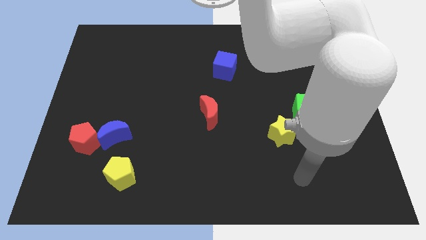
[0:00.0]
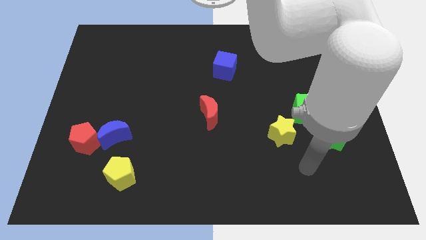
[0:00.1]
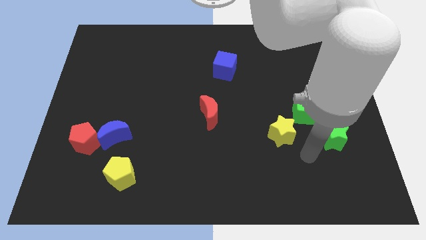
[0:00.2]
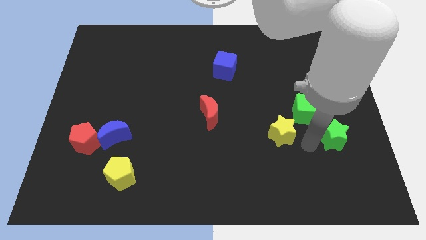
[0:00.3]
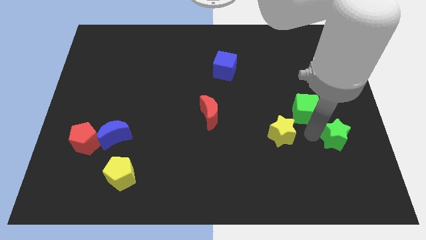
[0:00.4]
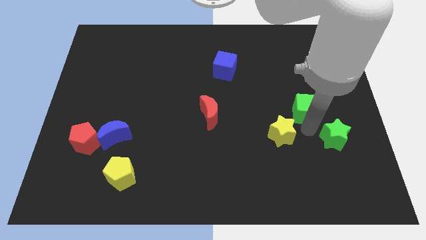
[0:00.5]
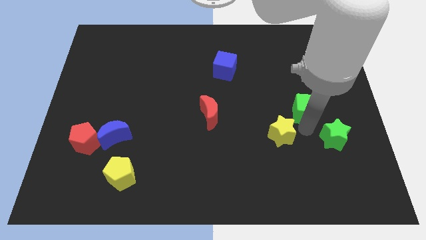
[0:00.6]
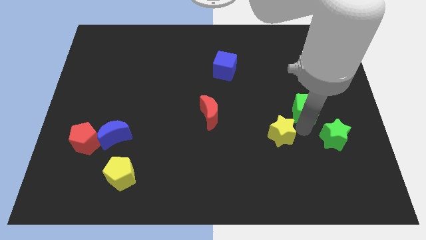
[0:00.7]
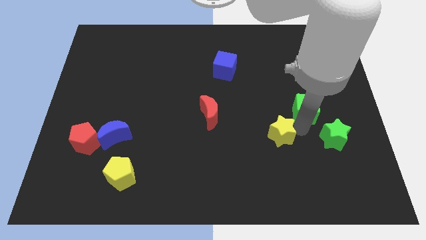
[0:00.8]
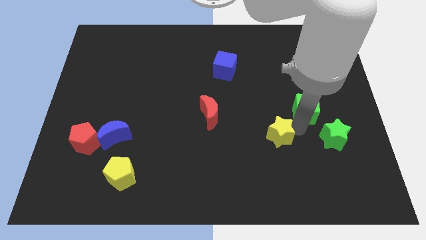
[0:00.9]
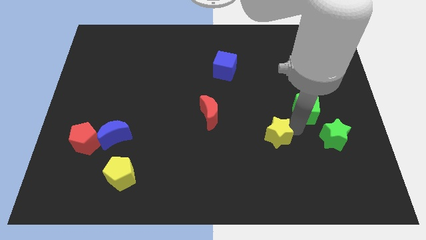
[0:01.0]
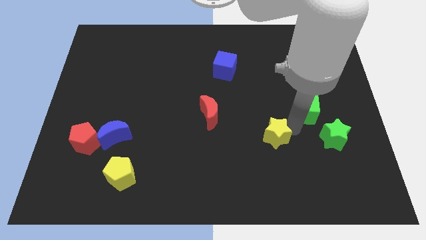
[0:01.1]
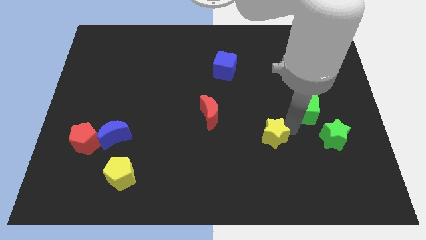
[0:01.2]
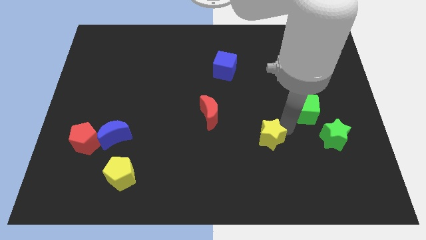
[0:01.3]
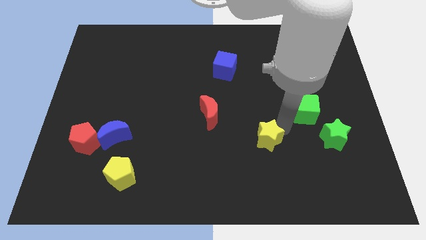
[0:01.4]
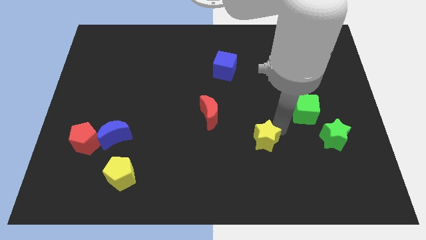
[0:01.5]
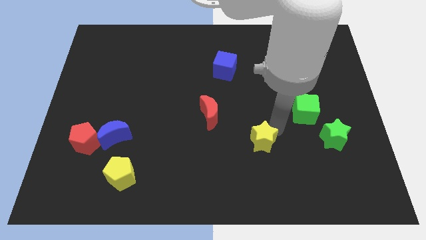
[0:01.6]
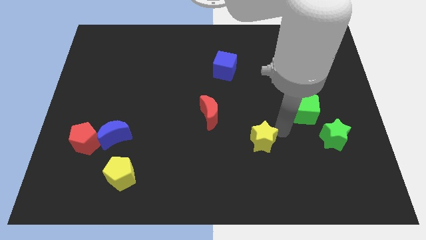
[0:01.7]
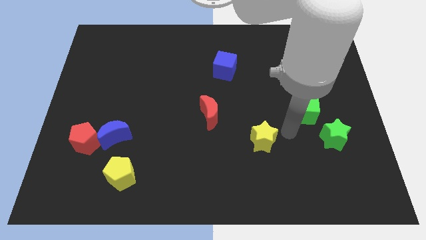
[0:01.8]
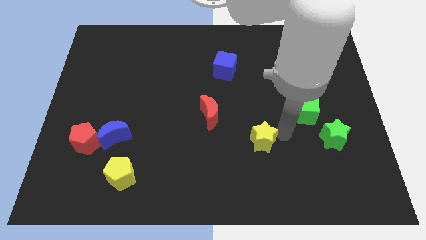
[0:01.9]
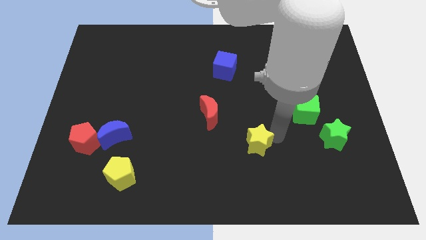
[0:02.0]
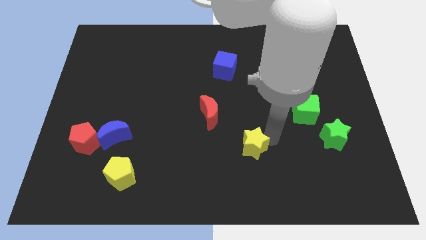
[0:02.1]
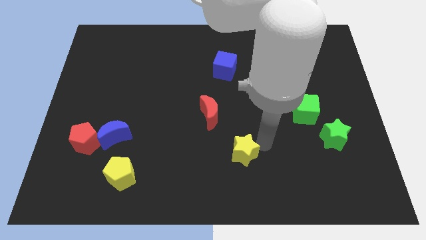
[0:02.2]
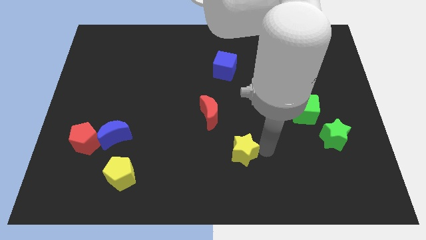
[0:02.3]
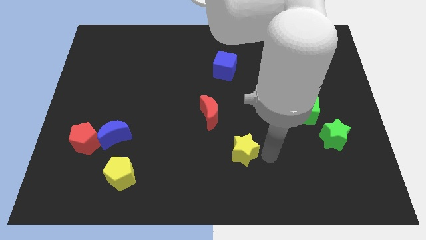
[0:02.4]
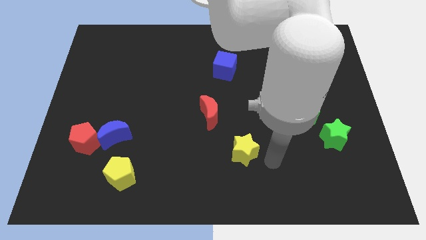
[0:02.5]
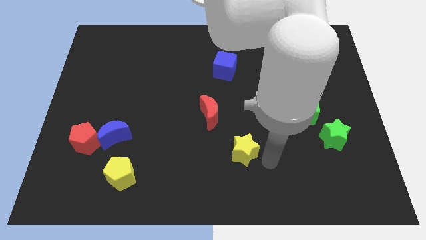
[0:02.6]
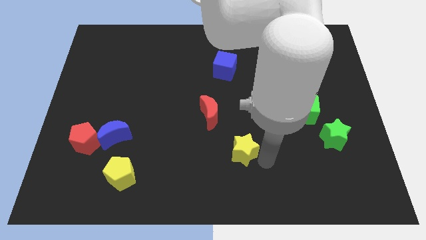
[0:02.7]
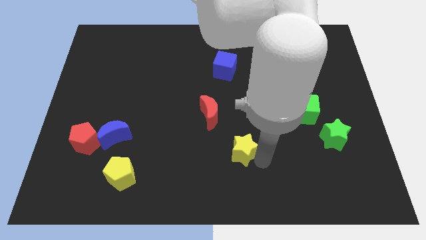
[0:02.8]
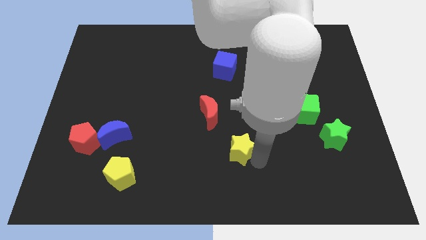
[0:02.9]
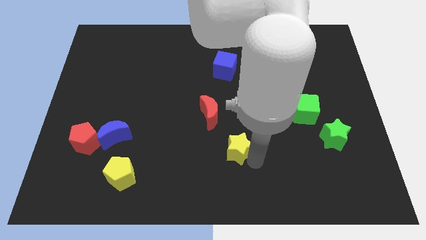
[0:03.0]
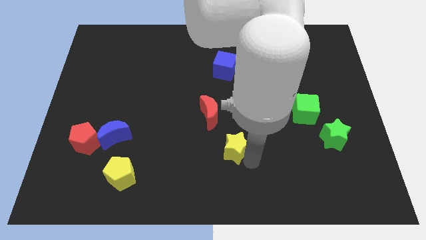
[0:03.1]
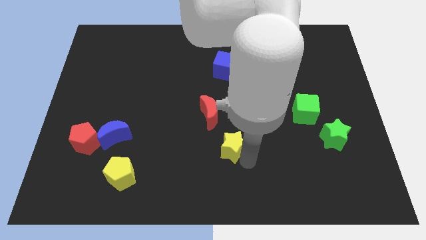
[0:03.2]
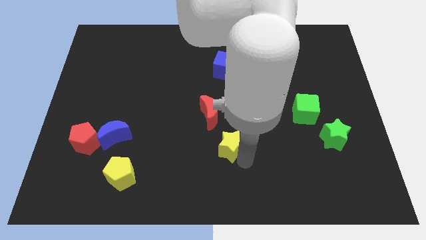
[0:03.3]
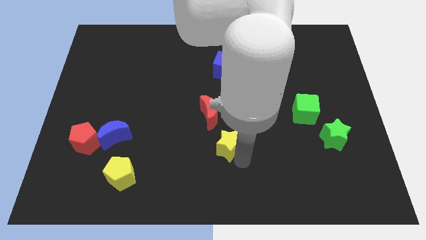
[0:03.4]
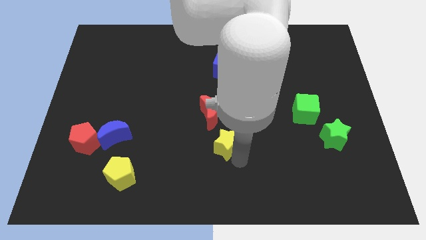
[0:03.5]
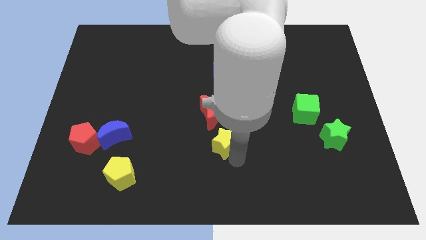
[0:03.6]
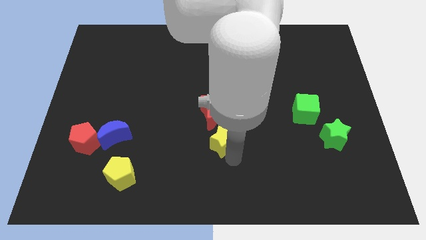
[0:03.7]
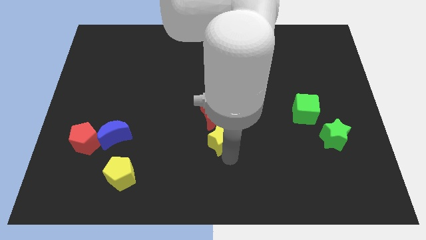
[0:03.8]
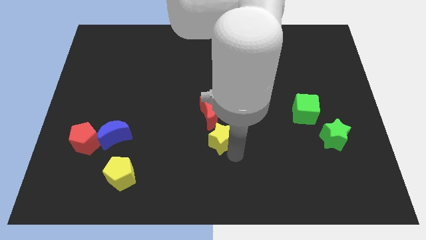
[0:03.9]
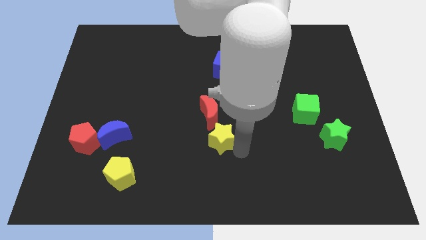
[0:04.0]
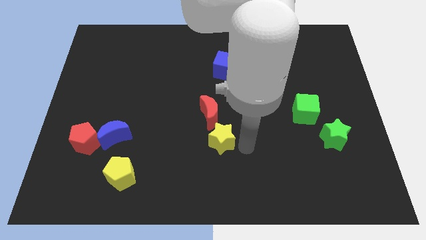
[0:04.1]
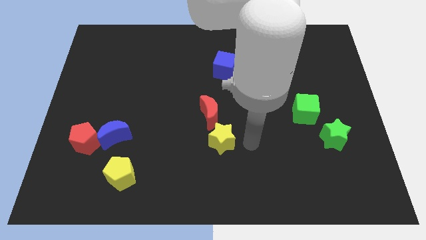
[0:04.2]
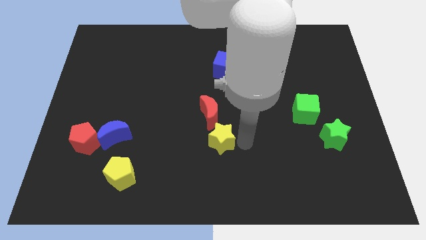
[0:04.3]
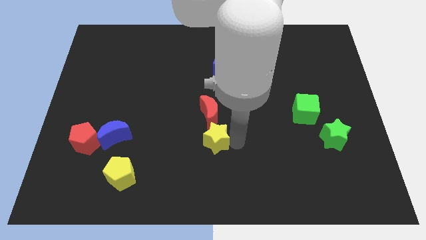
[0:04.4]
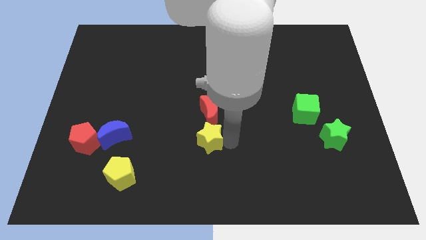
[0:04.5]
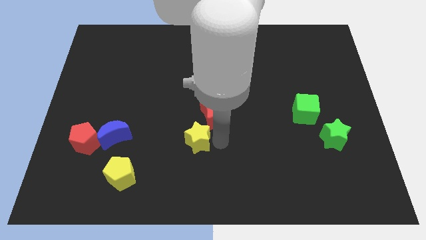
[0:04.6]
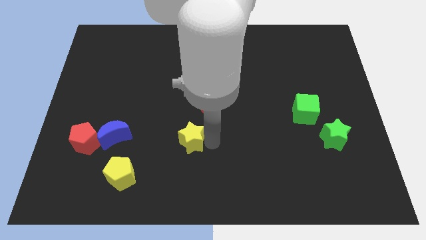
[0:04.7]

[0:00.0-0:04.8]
slide the yellow star to the left

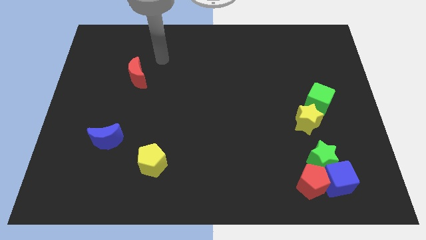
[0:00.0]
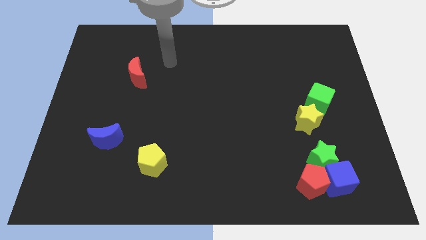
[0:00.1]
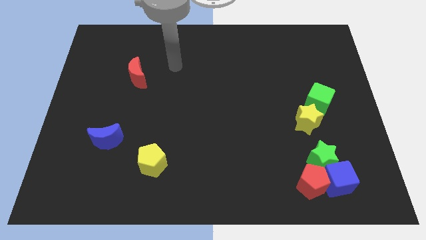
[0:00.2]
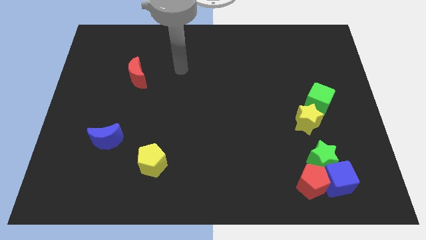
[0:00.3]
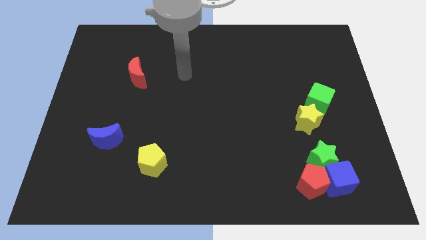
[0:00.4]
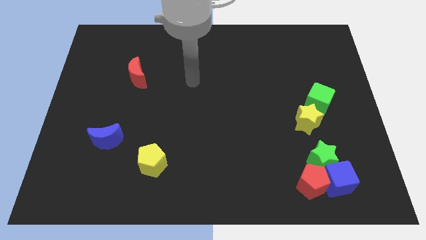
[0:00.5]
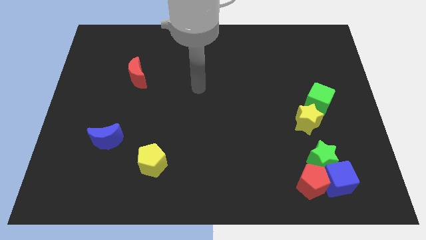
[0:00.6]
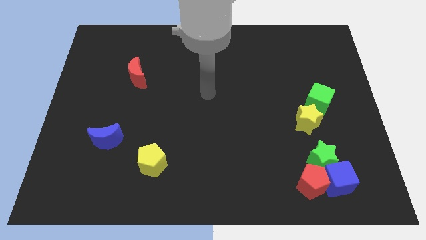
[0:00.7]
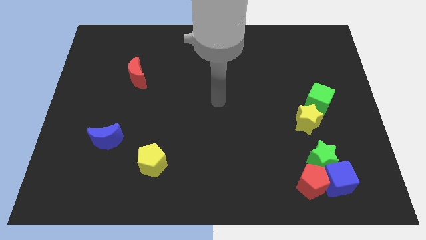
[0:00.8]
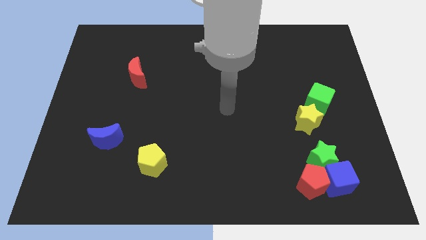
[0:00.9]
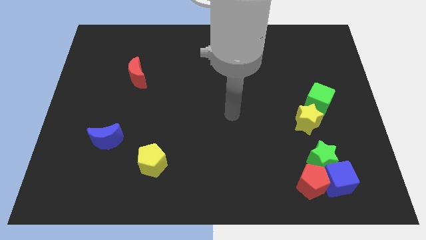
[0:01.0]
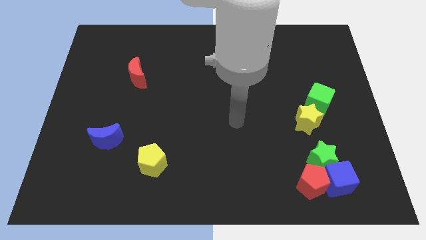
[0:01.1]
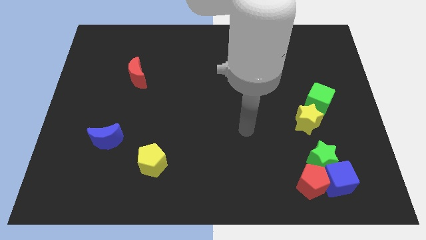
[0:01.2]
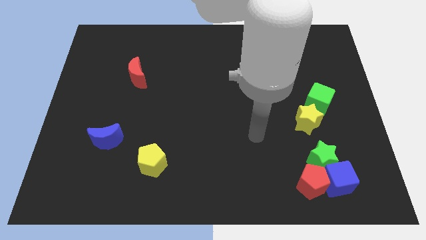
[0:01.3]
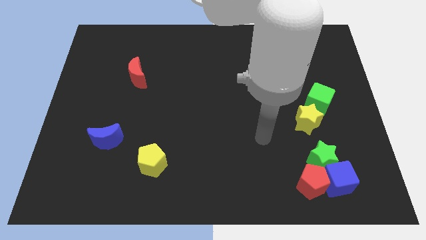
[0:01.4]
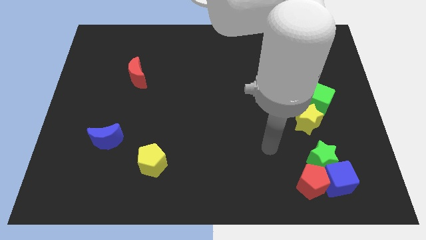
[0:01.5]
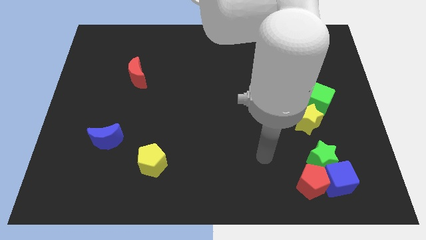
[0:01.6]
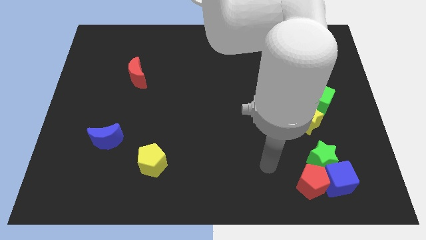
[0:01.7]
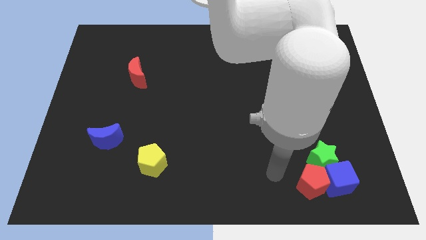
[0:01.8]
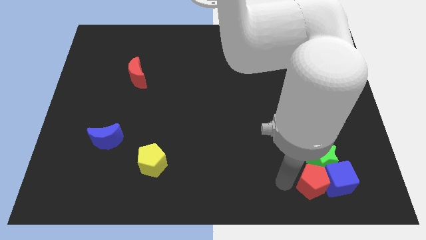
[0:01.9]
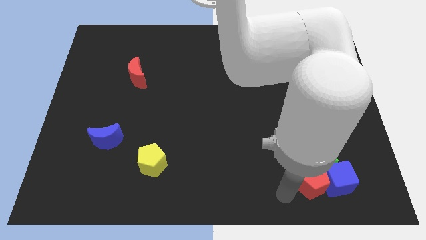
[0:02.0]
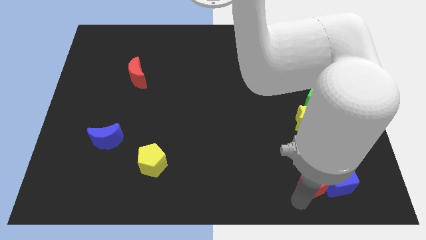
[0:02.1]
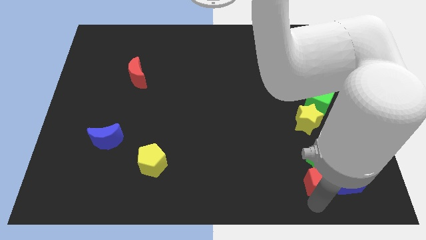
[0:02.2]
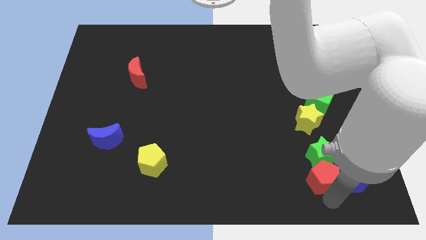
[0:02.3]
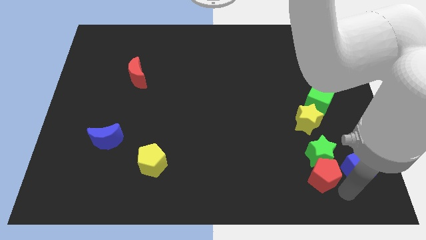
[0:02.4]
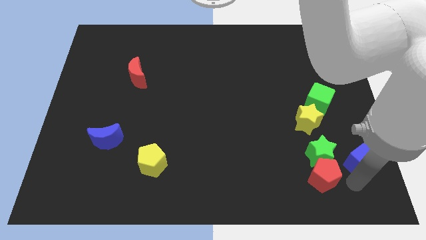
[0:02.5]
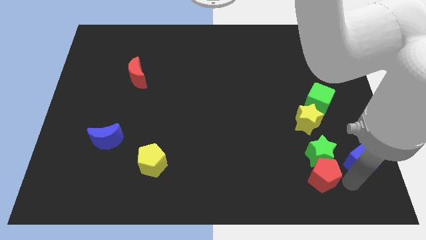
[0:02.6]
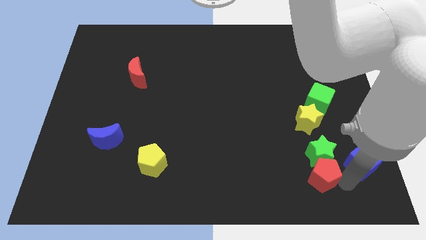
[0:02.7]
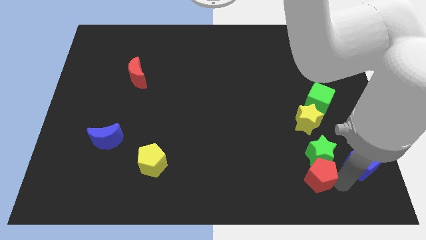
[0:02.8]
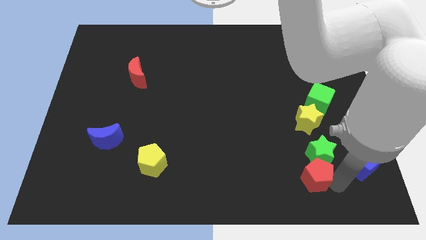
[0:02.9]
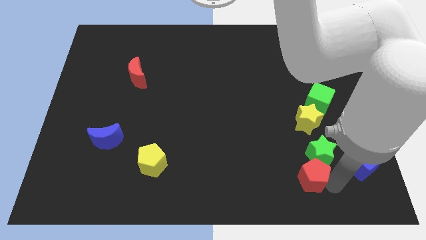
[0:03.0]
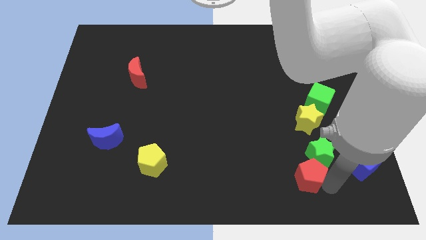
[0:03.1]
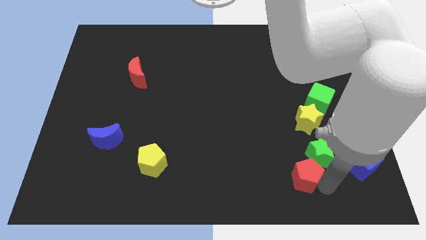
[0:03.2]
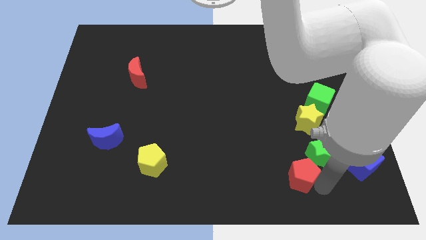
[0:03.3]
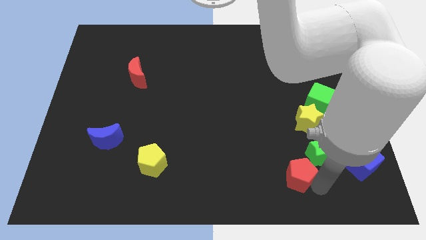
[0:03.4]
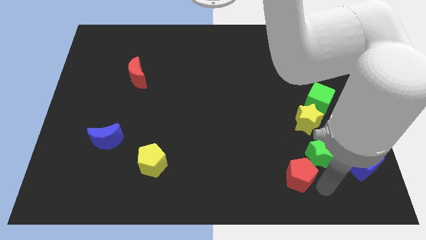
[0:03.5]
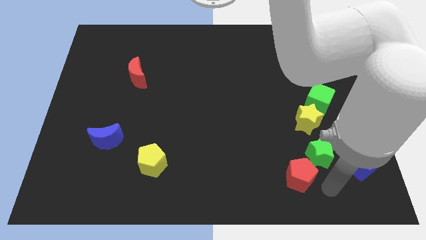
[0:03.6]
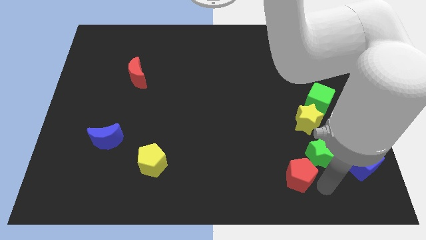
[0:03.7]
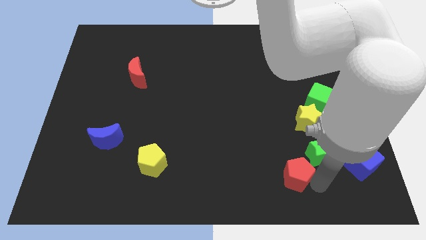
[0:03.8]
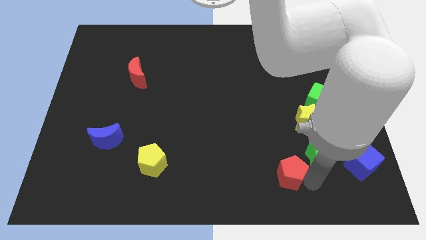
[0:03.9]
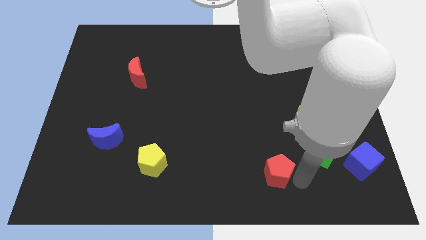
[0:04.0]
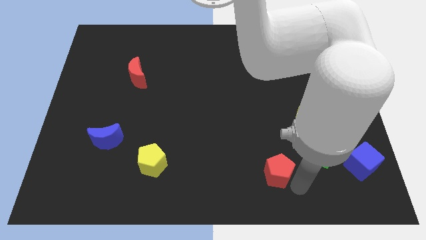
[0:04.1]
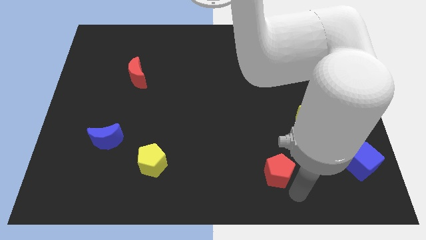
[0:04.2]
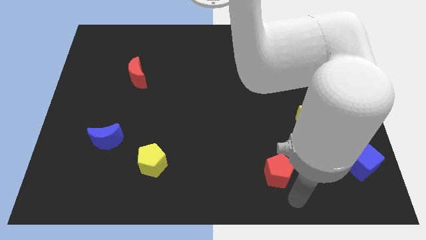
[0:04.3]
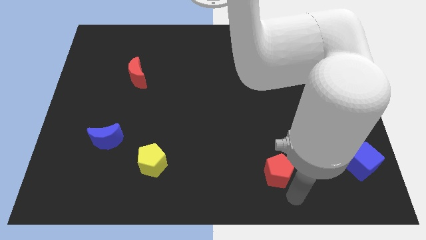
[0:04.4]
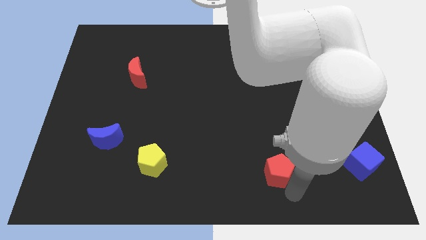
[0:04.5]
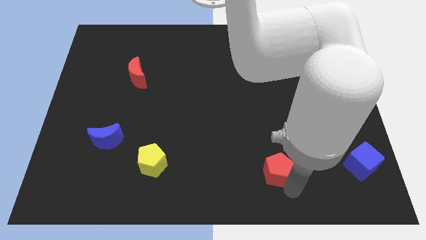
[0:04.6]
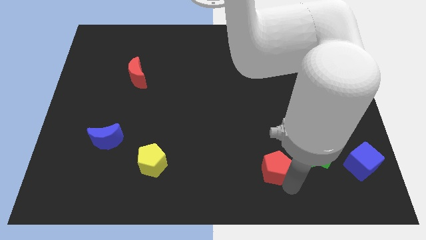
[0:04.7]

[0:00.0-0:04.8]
slightly push the red pentagon diagonally up and to the left
